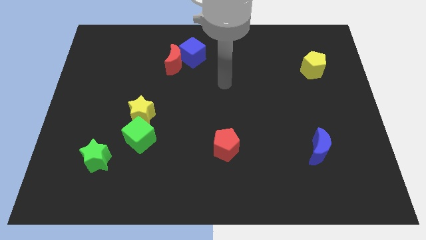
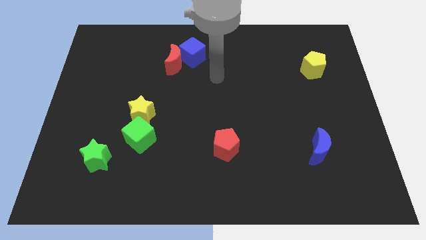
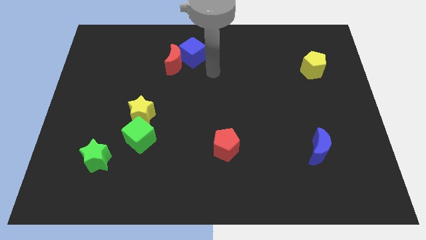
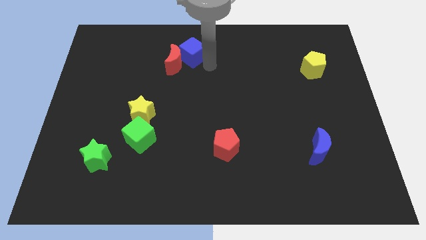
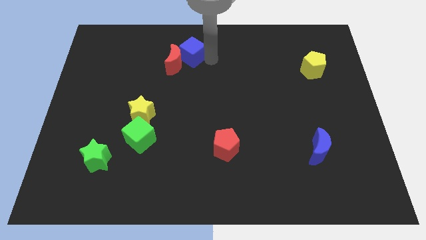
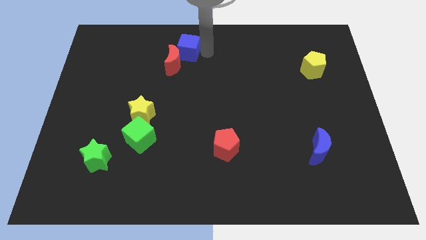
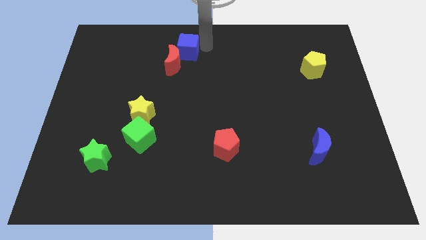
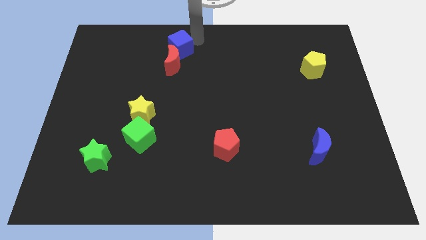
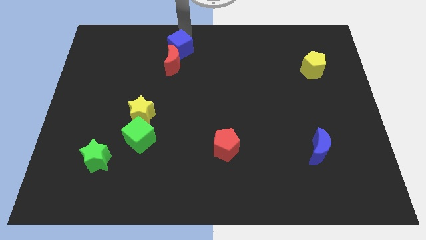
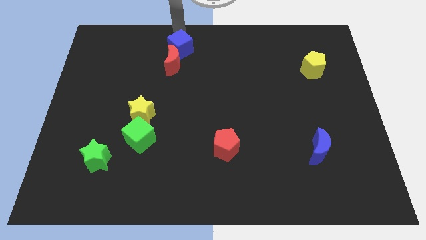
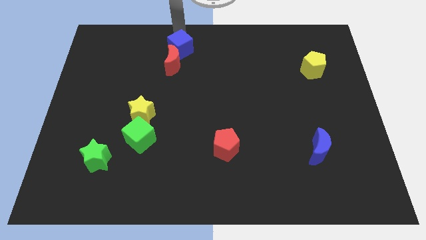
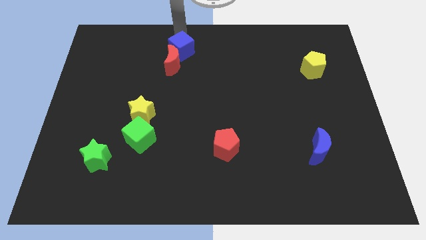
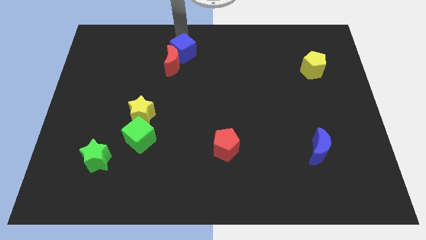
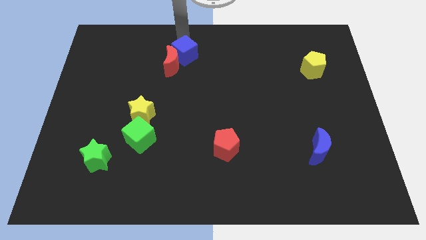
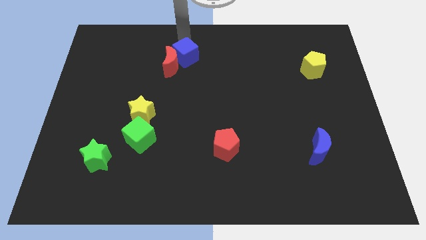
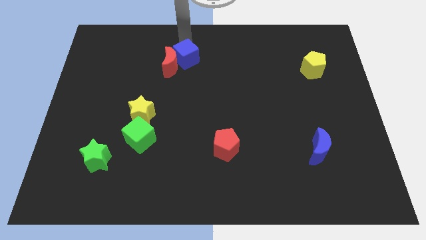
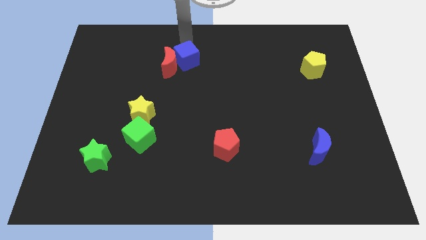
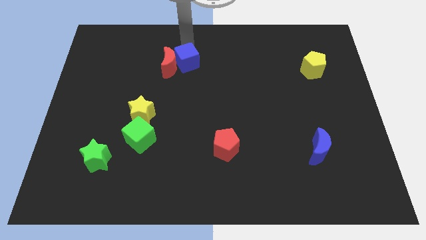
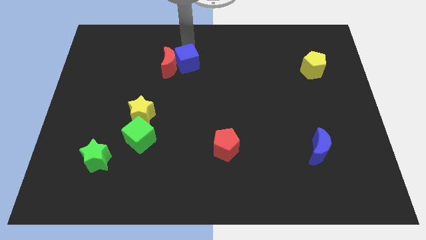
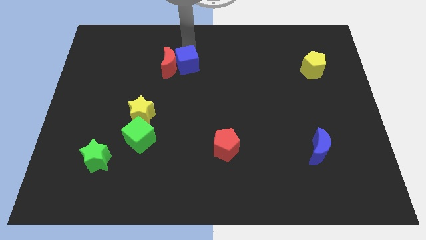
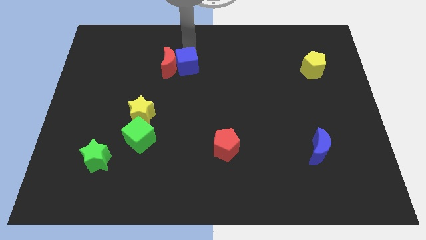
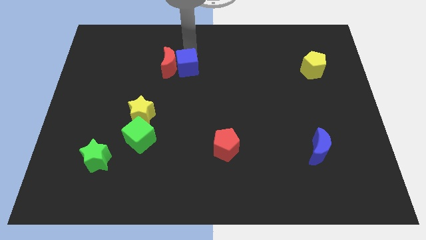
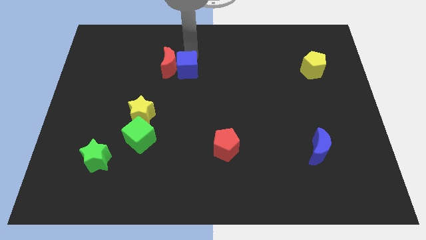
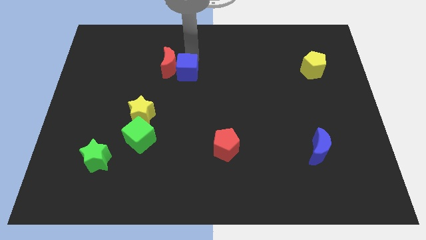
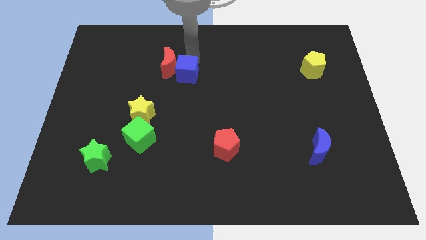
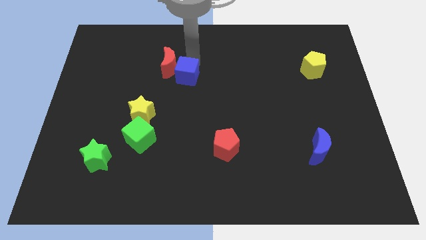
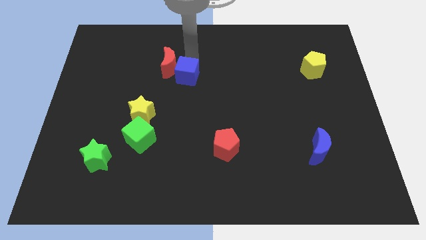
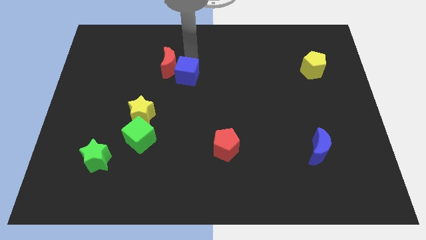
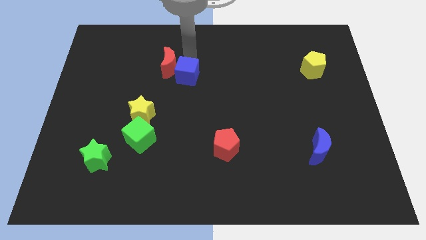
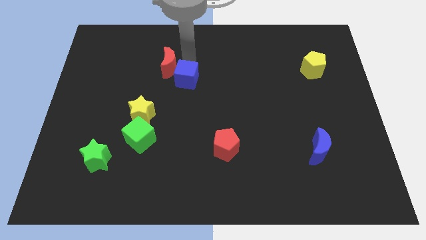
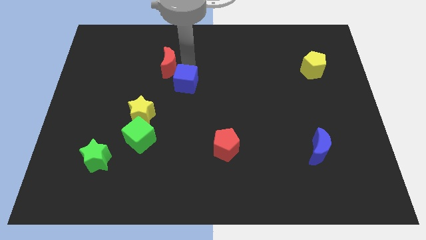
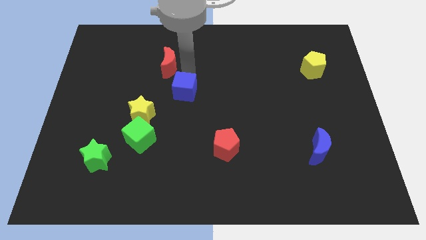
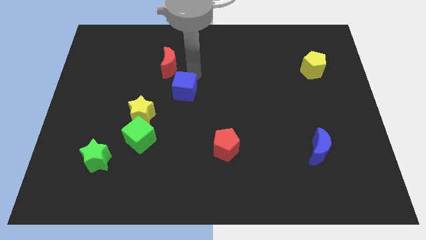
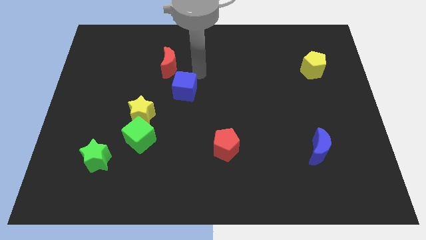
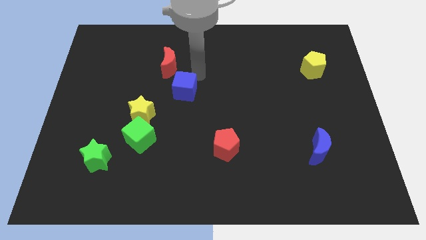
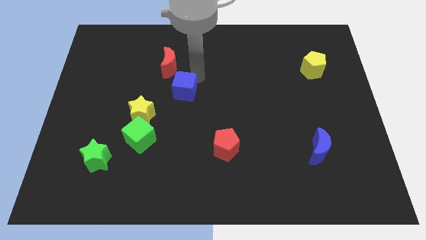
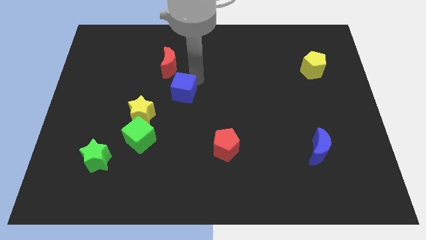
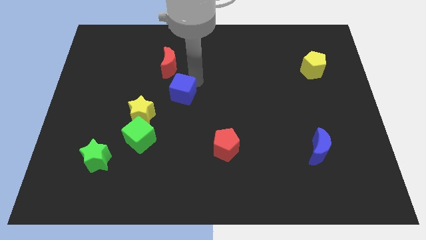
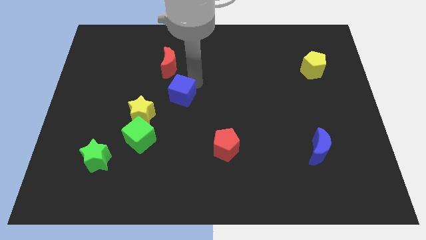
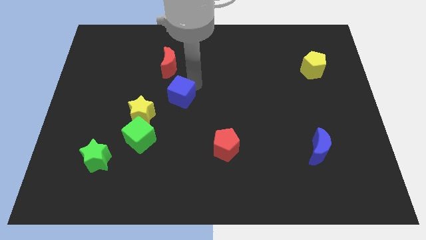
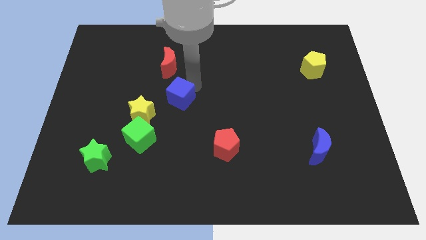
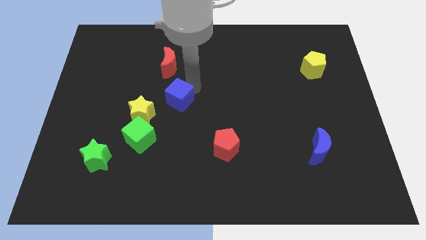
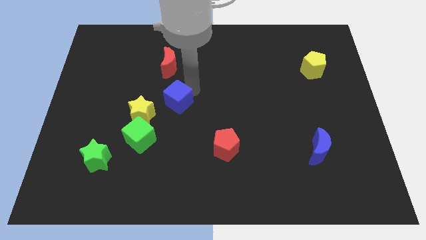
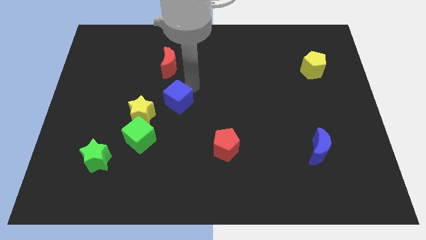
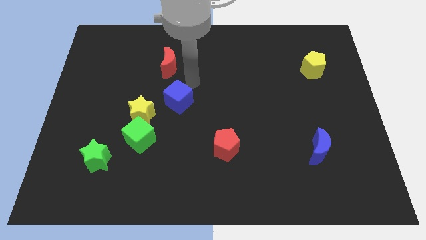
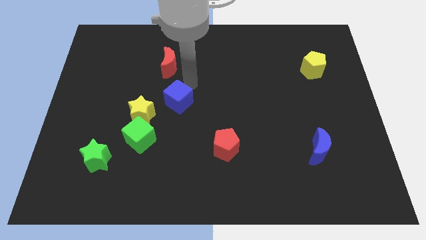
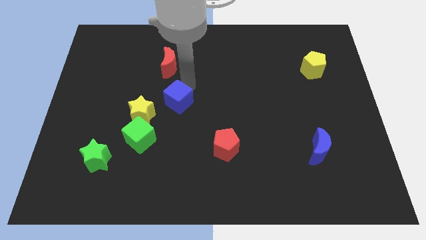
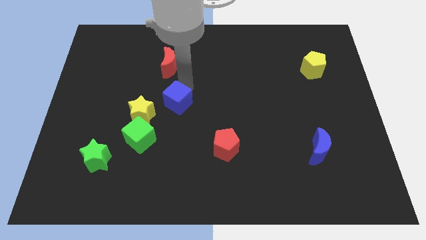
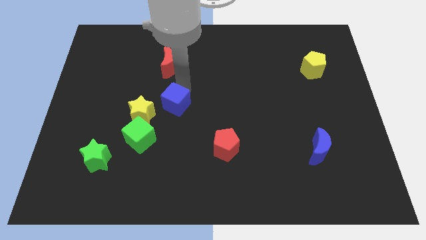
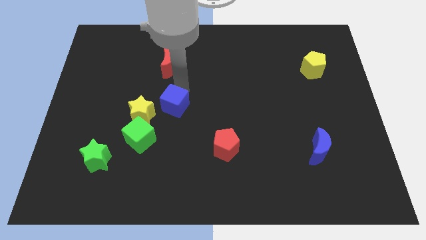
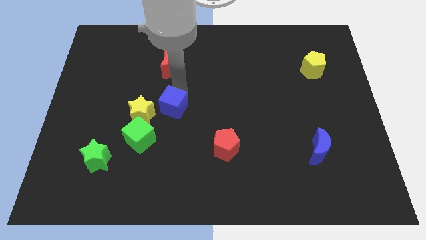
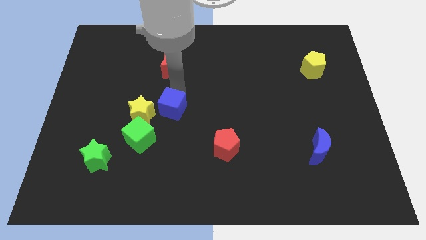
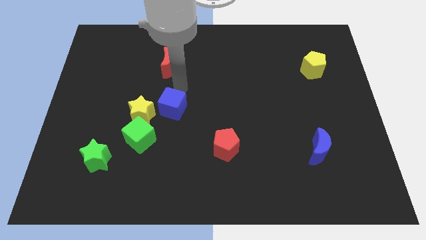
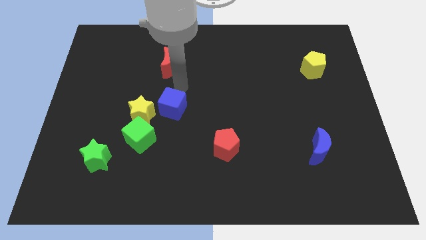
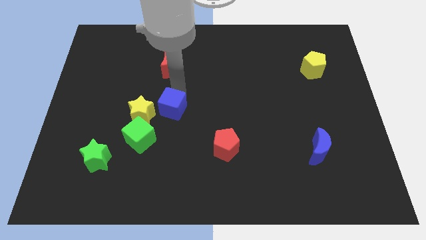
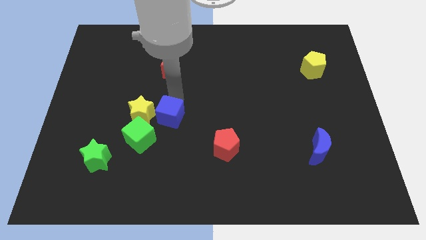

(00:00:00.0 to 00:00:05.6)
push the blue cube to the bottom right of the yellow star

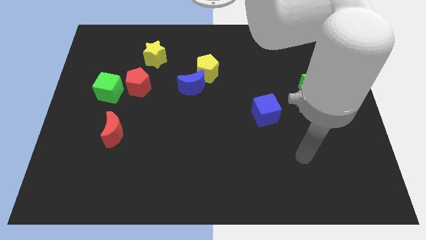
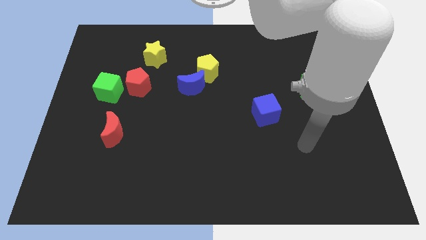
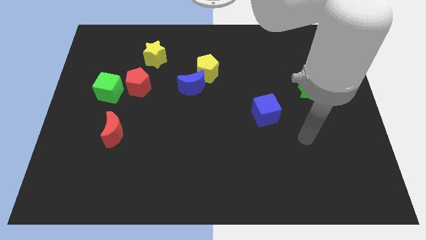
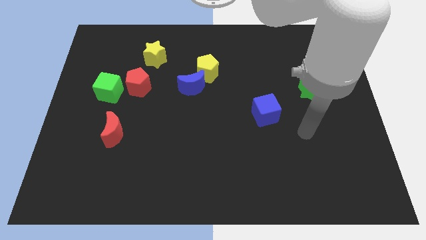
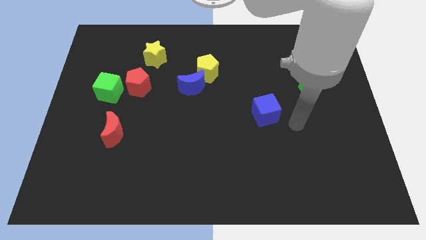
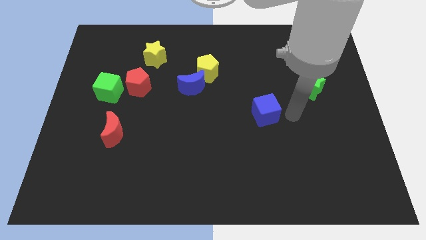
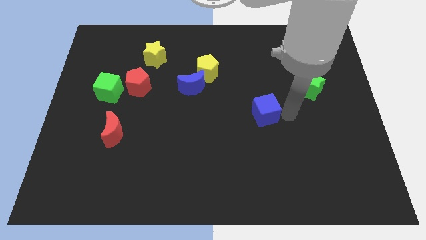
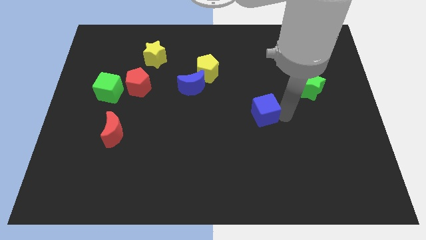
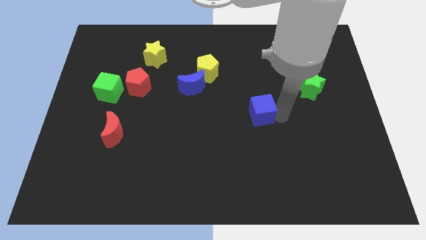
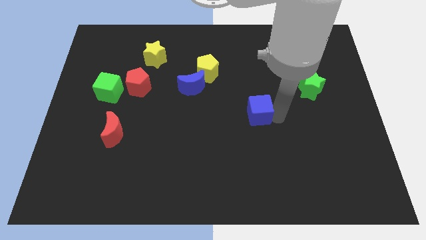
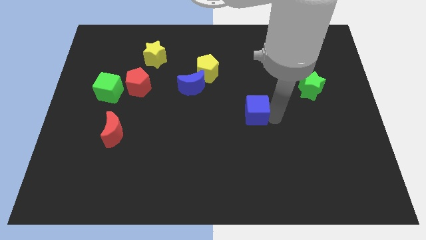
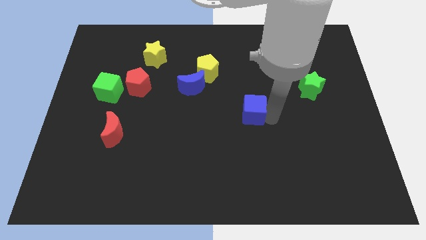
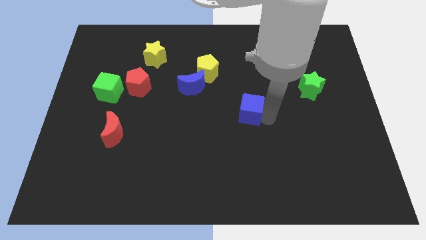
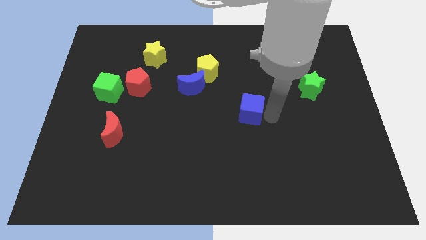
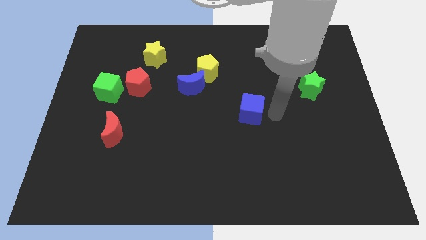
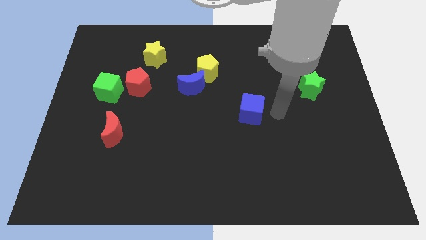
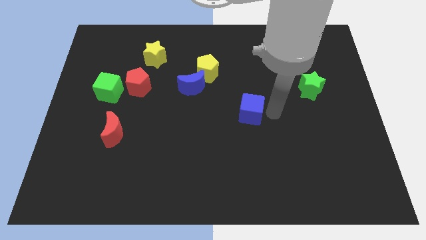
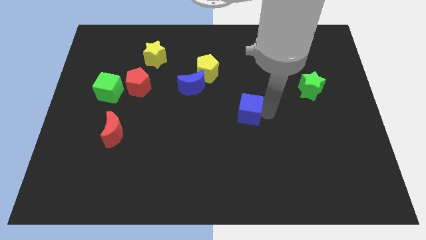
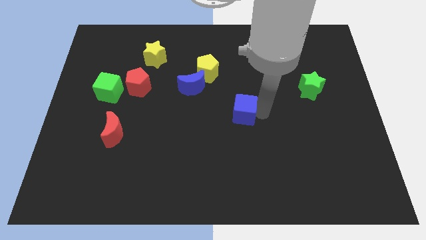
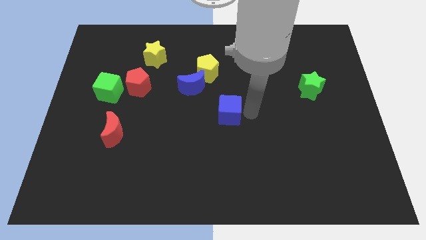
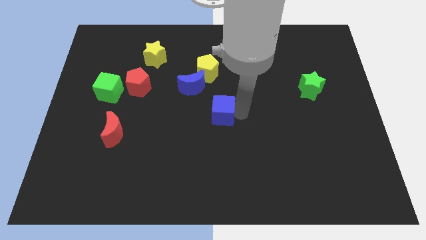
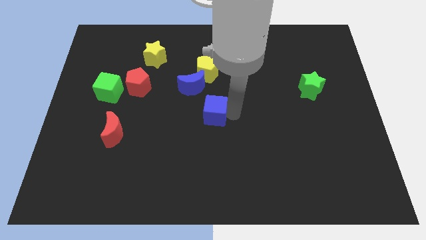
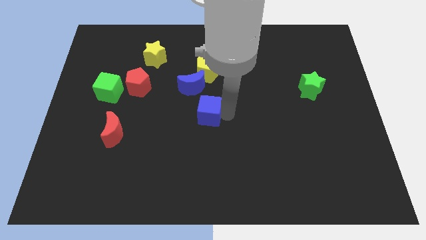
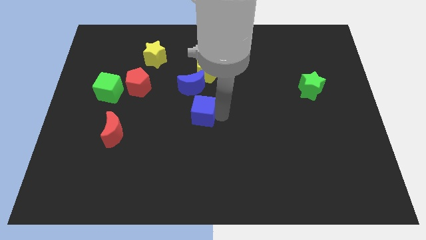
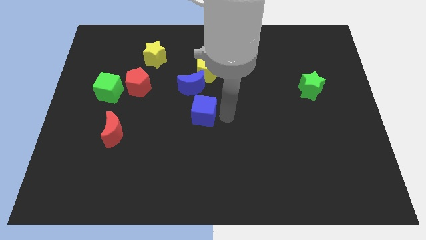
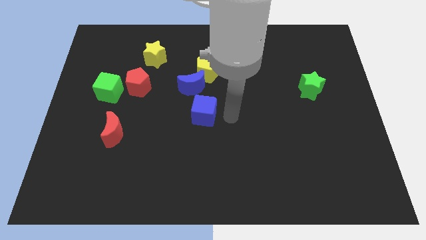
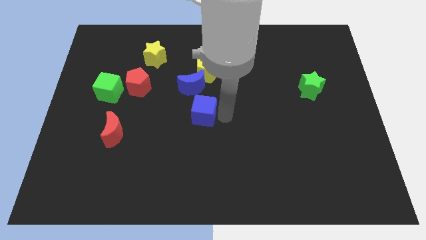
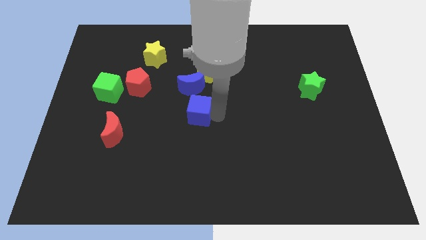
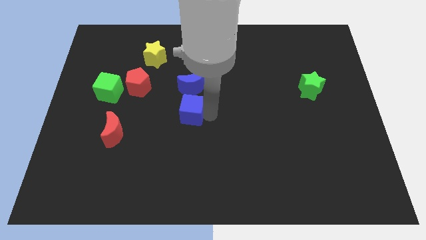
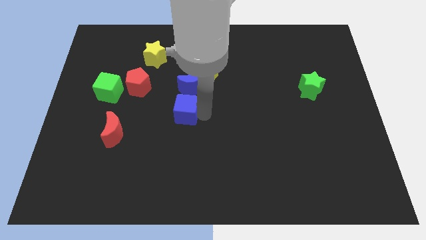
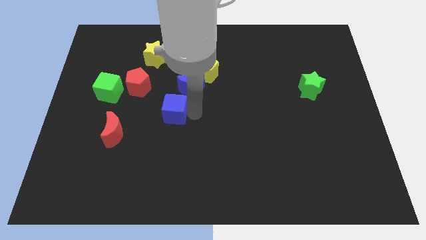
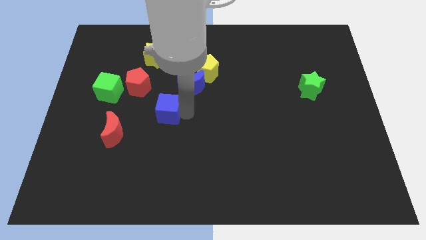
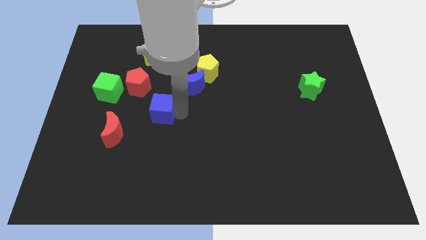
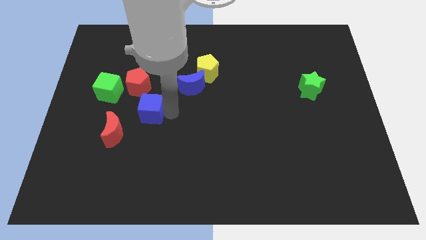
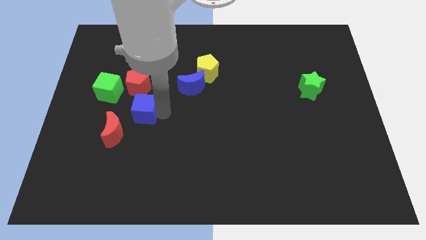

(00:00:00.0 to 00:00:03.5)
slide the blue cube to the bottom right side of the green cube
